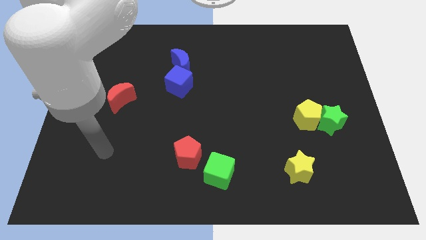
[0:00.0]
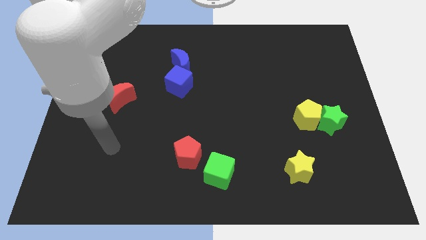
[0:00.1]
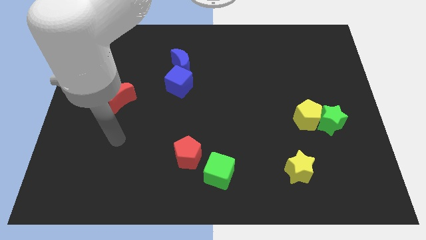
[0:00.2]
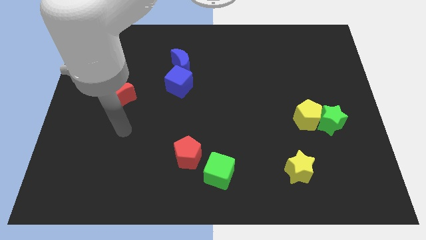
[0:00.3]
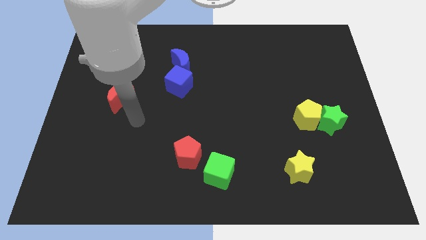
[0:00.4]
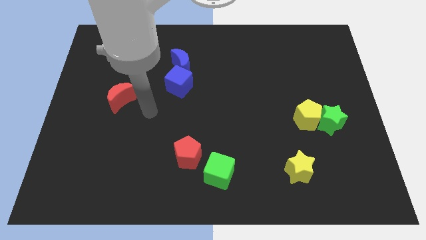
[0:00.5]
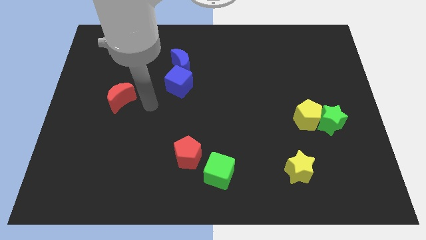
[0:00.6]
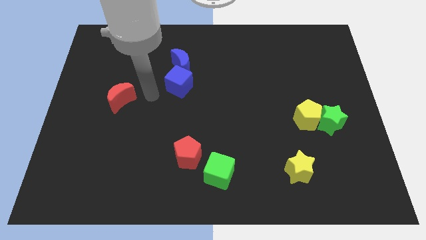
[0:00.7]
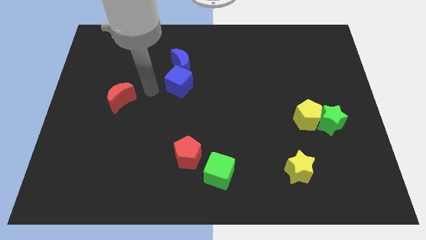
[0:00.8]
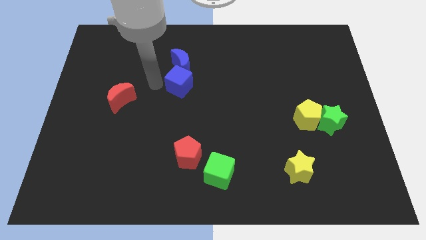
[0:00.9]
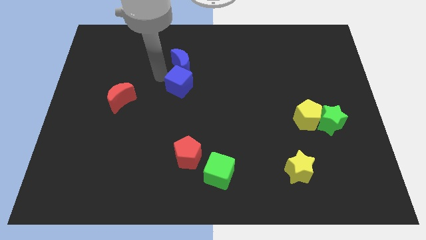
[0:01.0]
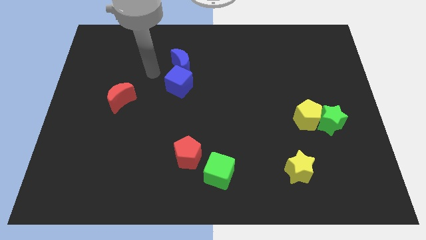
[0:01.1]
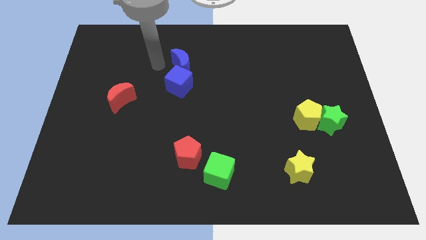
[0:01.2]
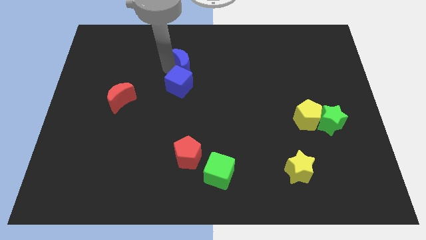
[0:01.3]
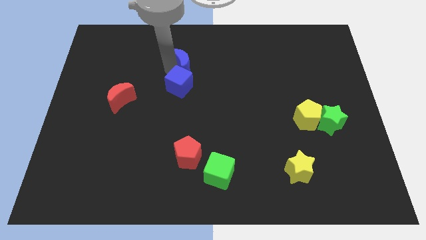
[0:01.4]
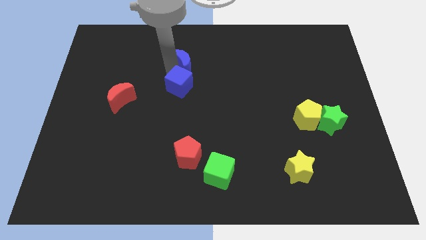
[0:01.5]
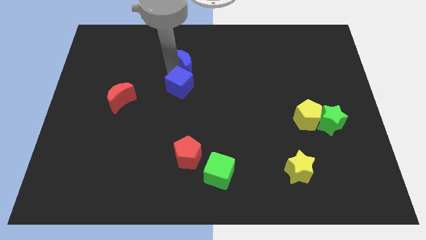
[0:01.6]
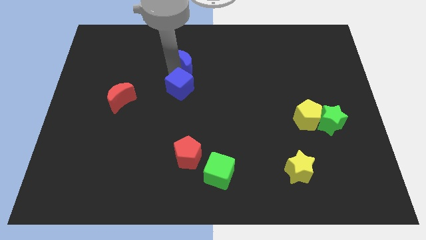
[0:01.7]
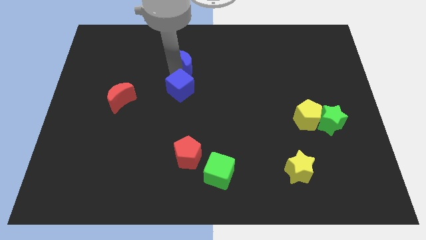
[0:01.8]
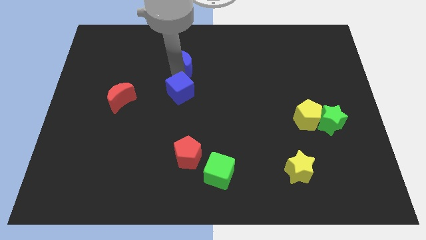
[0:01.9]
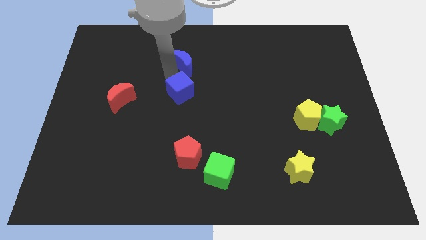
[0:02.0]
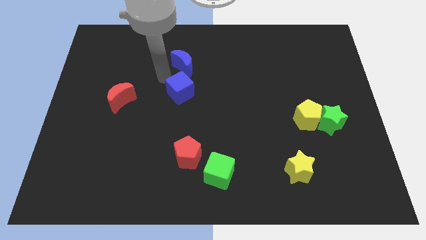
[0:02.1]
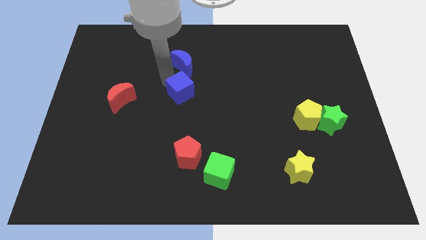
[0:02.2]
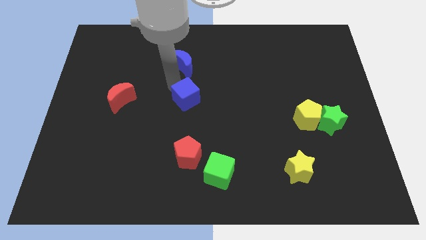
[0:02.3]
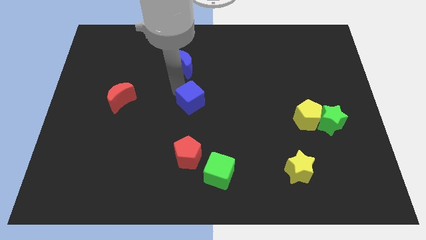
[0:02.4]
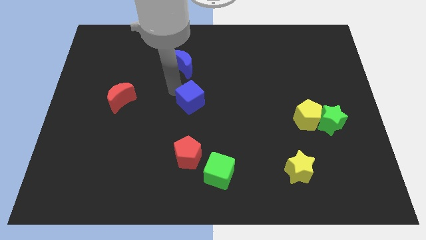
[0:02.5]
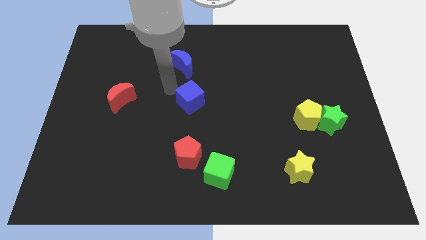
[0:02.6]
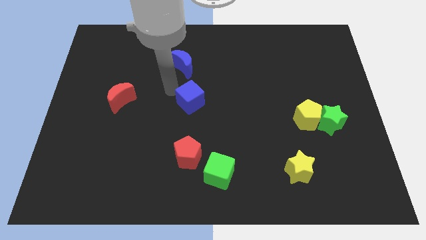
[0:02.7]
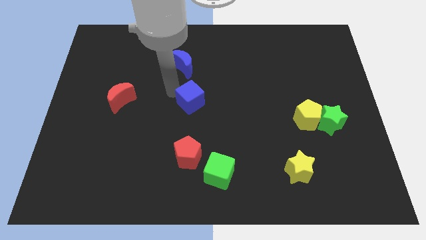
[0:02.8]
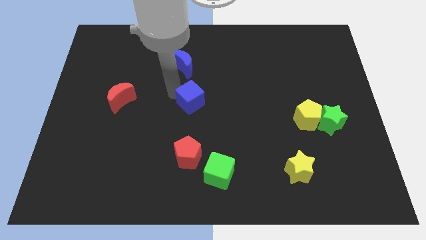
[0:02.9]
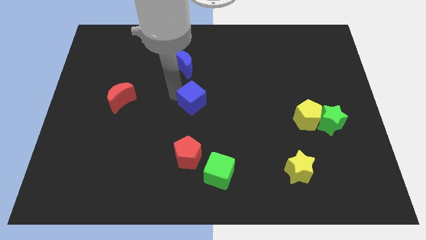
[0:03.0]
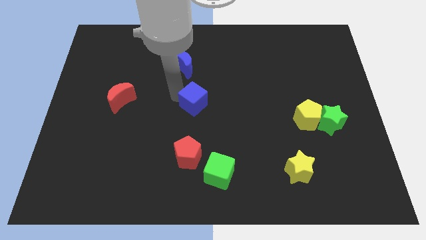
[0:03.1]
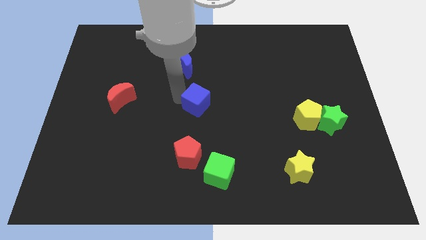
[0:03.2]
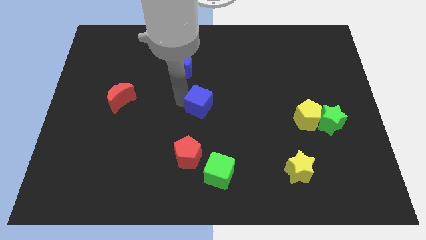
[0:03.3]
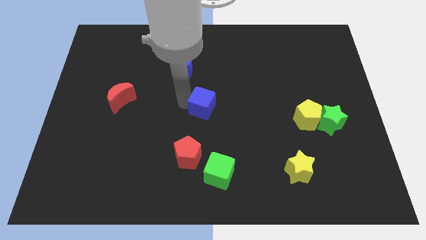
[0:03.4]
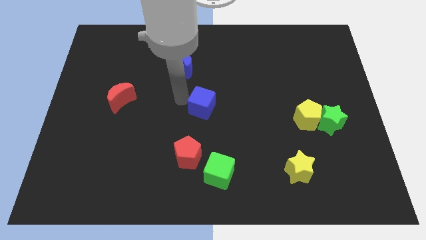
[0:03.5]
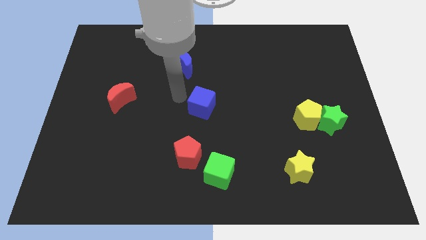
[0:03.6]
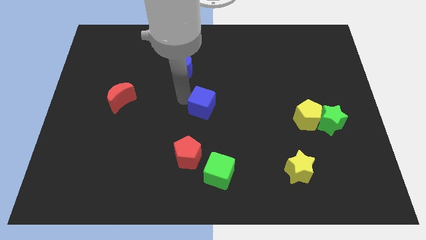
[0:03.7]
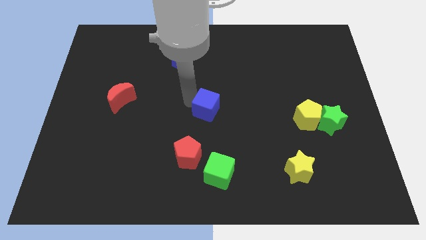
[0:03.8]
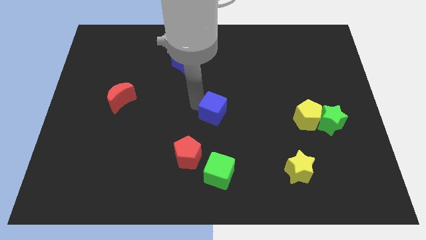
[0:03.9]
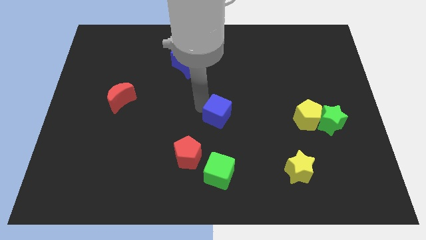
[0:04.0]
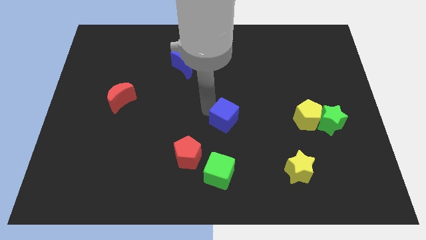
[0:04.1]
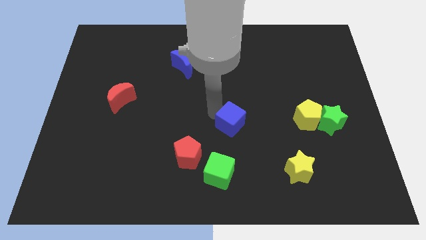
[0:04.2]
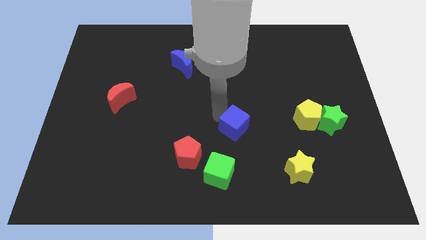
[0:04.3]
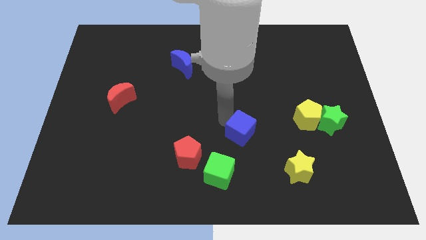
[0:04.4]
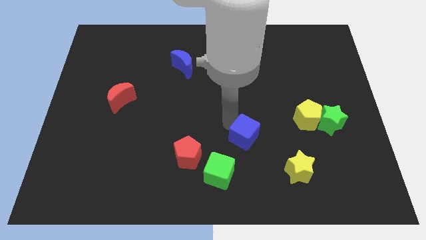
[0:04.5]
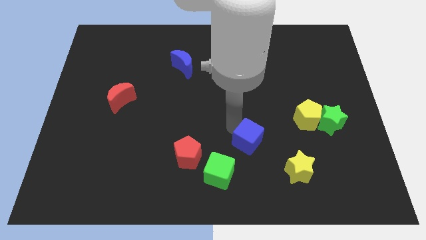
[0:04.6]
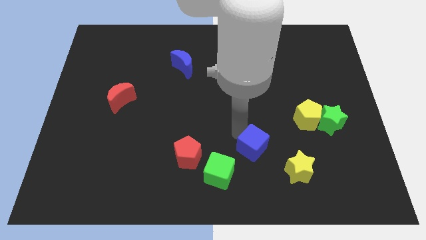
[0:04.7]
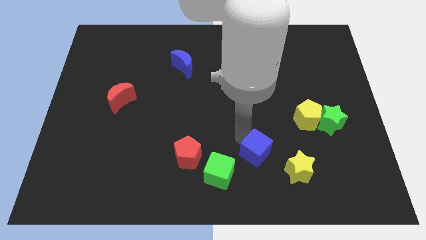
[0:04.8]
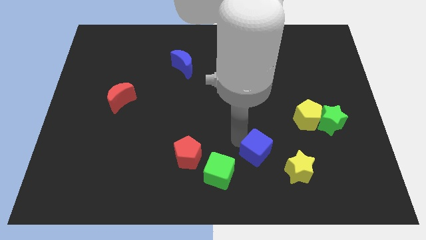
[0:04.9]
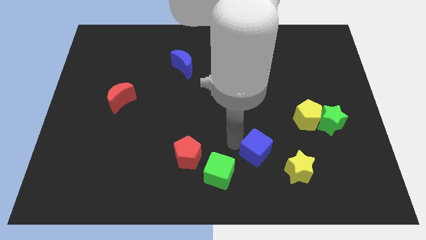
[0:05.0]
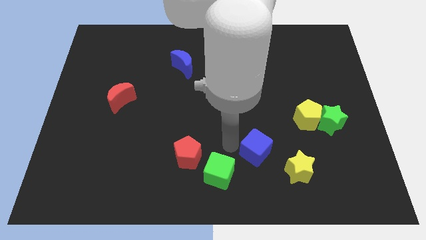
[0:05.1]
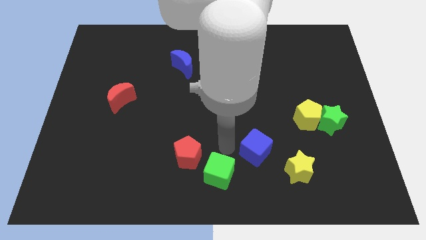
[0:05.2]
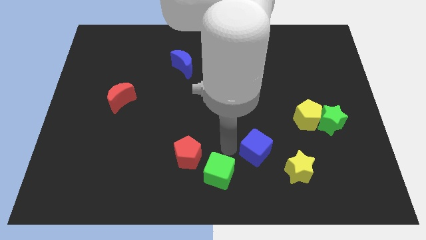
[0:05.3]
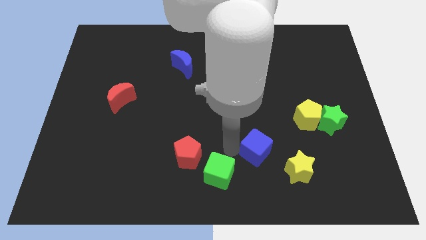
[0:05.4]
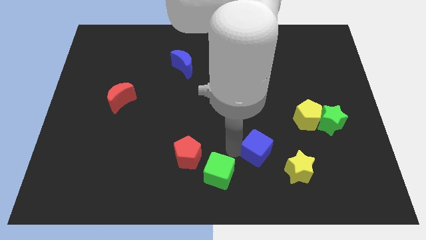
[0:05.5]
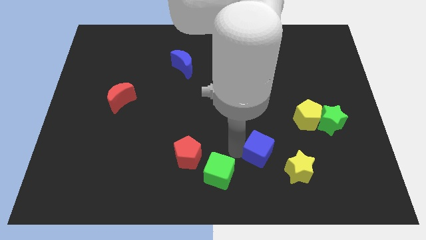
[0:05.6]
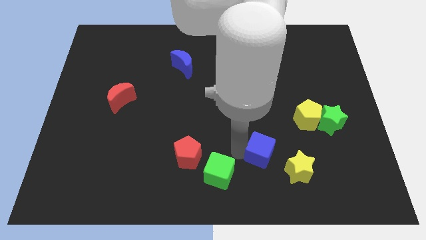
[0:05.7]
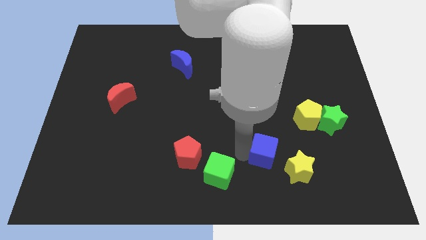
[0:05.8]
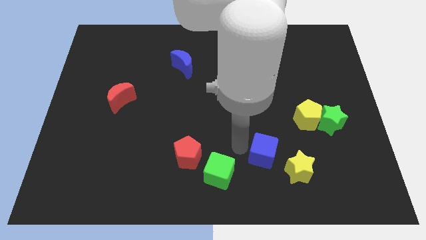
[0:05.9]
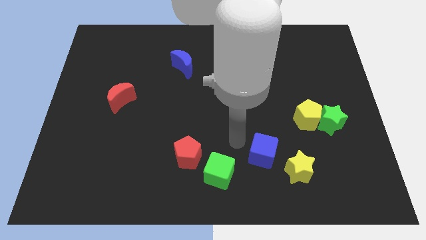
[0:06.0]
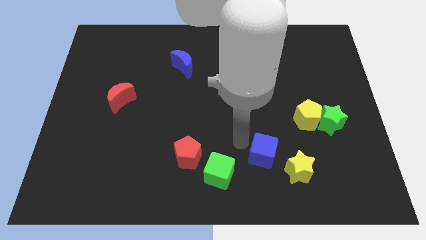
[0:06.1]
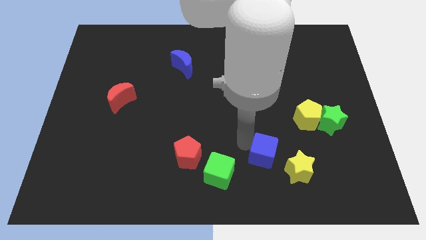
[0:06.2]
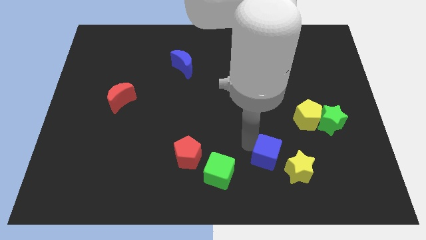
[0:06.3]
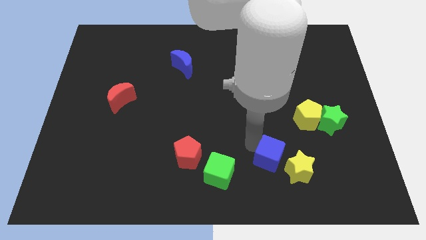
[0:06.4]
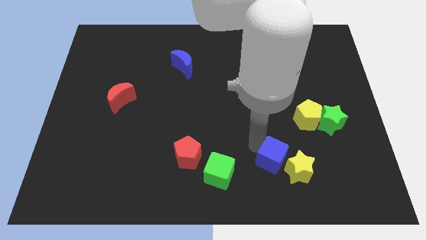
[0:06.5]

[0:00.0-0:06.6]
move the blue cube towards the yellow star

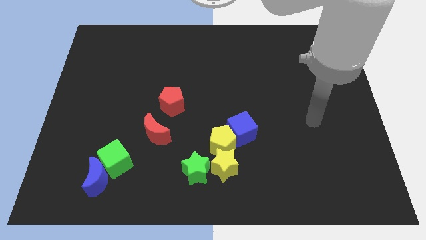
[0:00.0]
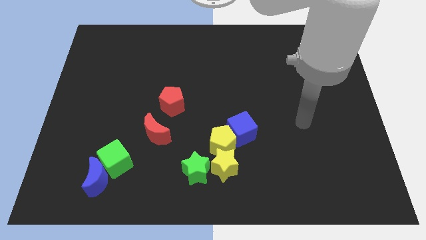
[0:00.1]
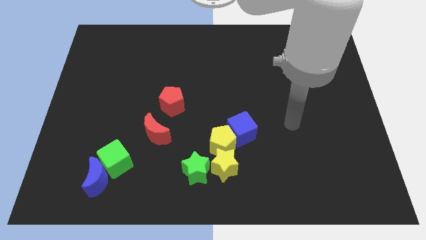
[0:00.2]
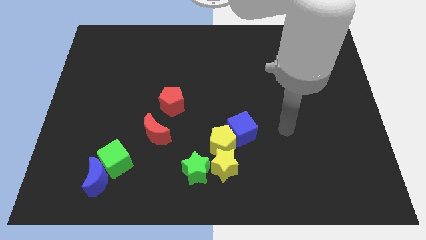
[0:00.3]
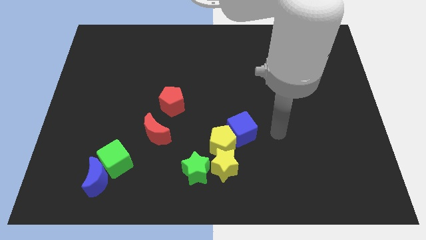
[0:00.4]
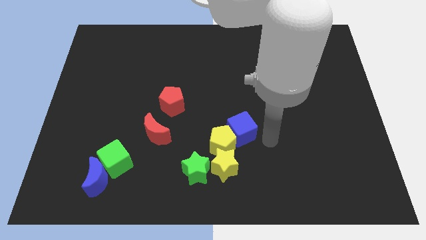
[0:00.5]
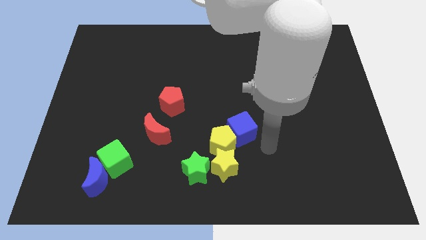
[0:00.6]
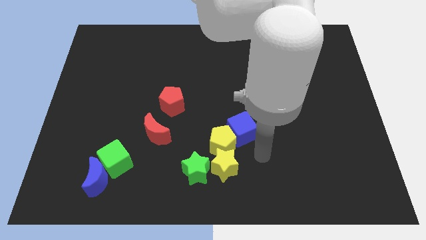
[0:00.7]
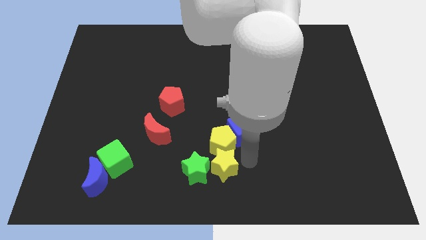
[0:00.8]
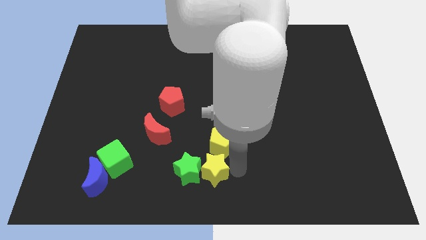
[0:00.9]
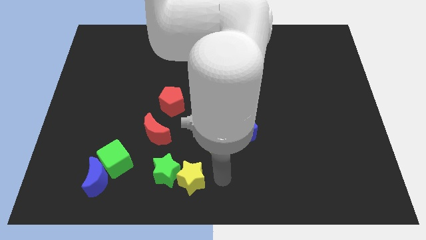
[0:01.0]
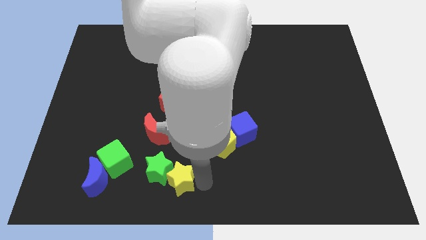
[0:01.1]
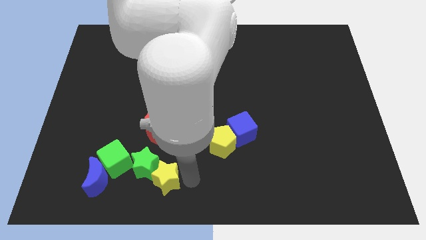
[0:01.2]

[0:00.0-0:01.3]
push the green star next to the green cube
